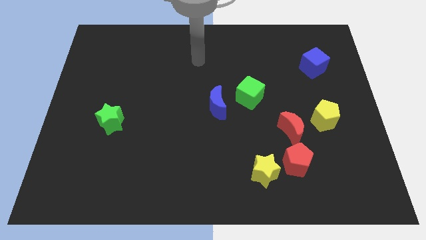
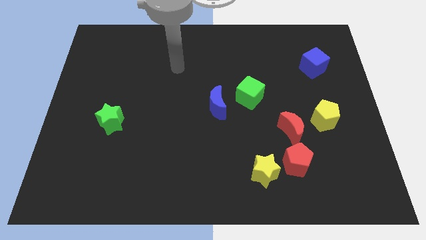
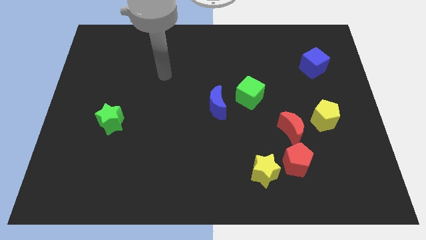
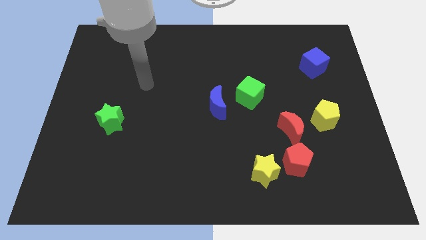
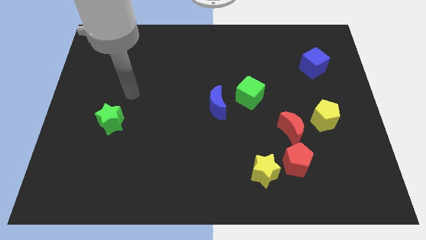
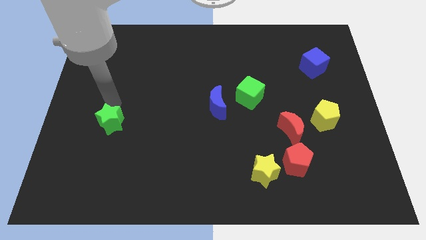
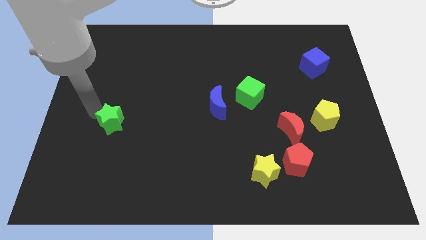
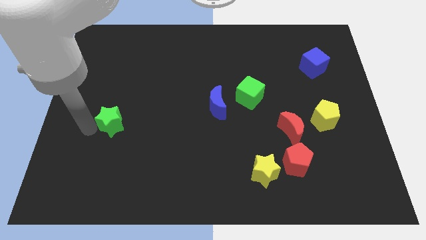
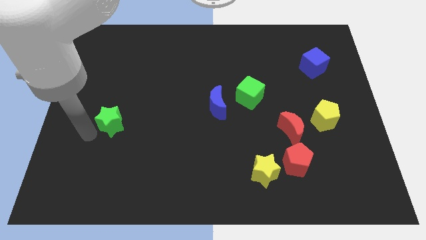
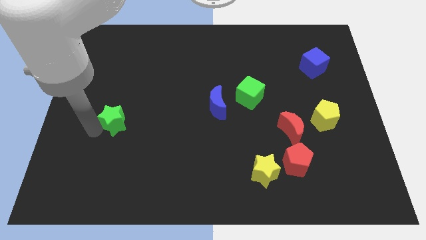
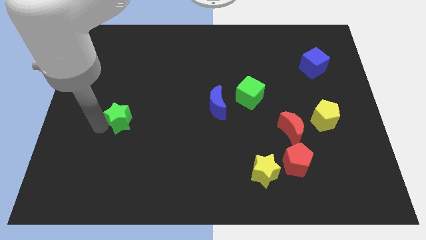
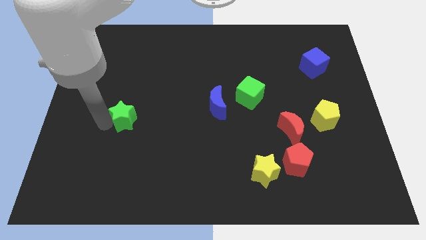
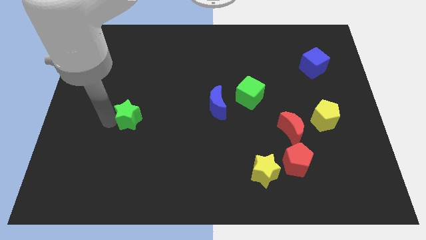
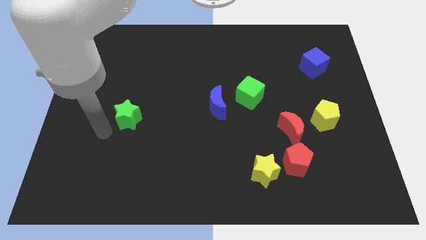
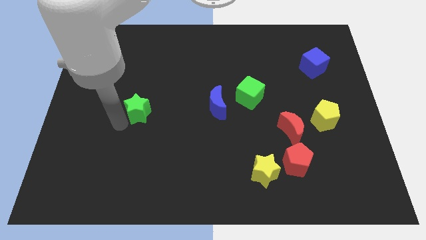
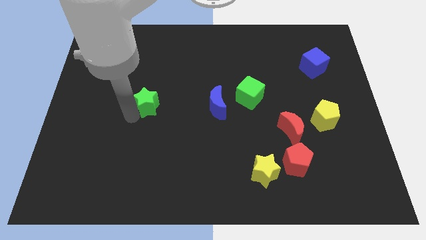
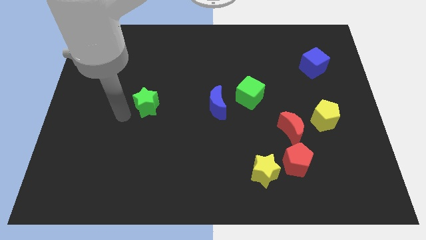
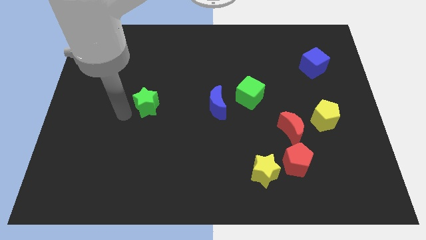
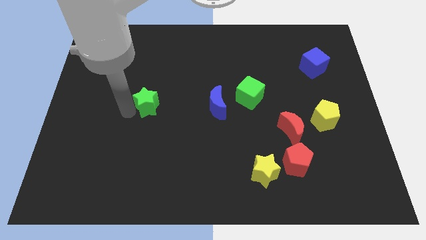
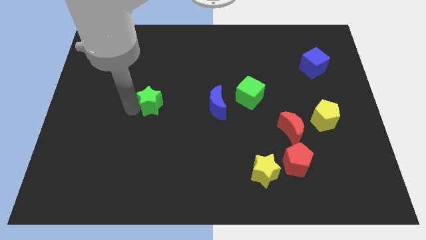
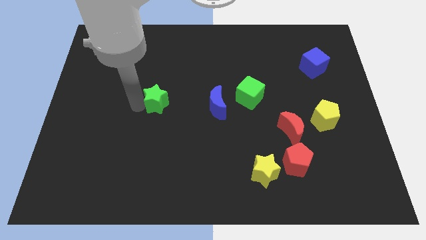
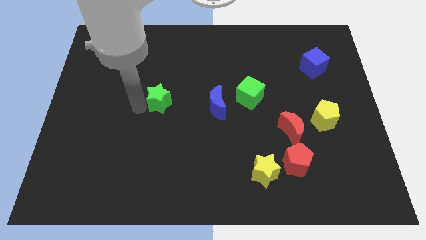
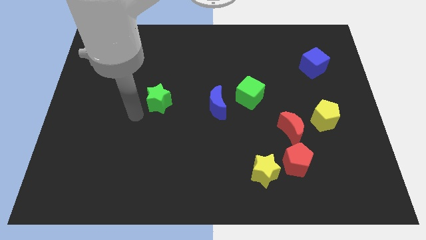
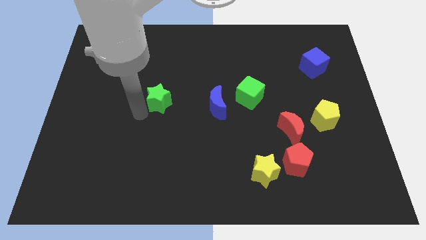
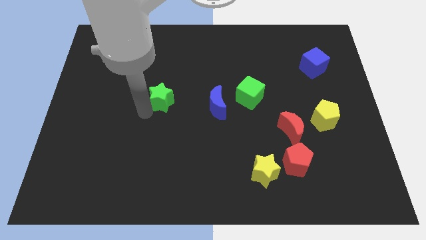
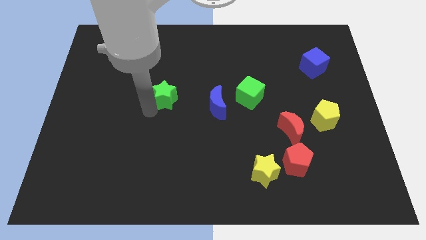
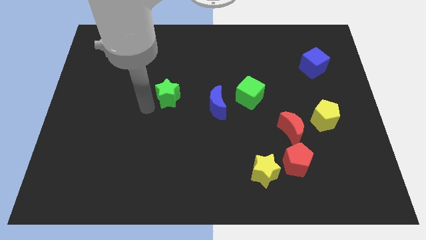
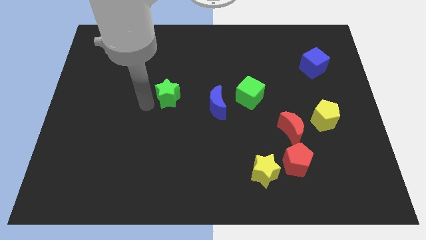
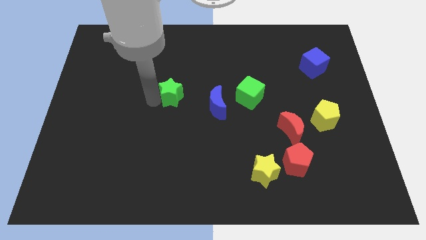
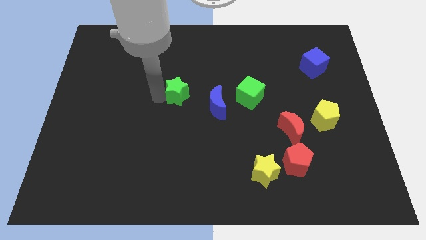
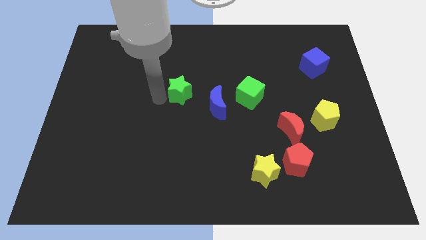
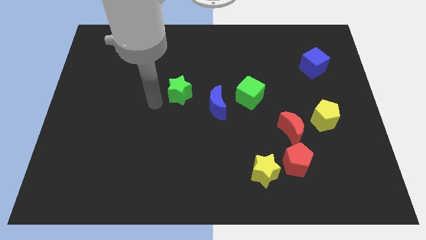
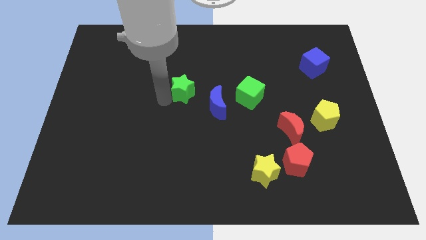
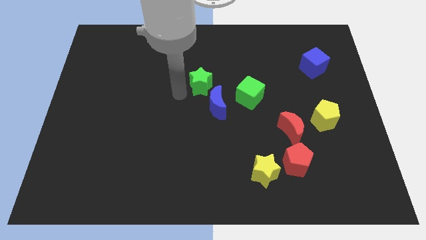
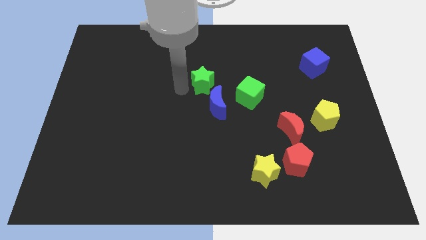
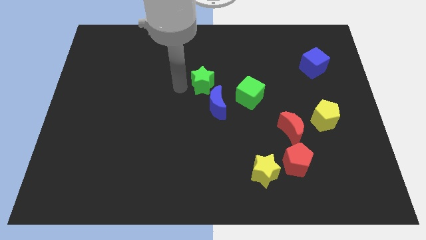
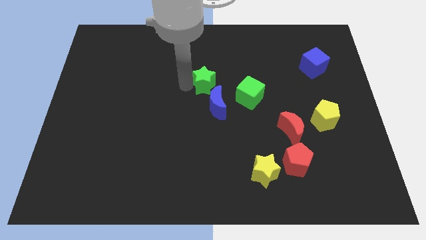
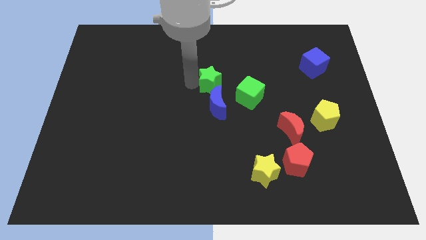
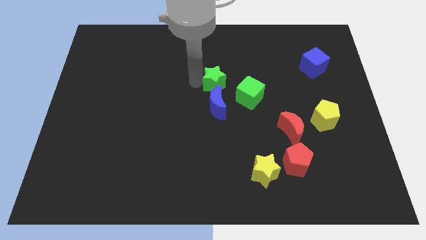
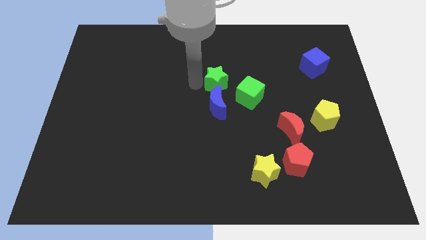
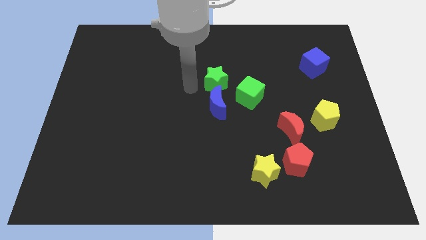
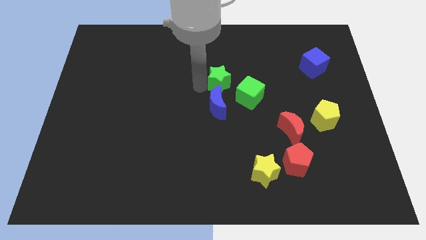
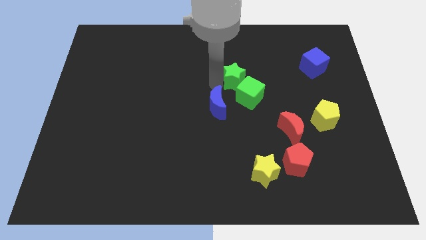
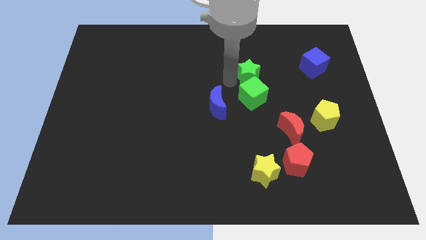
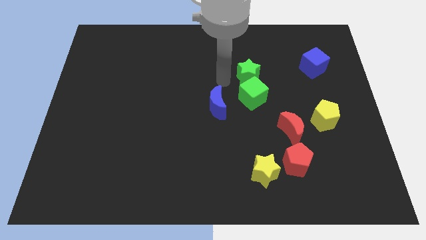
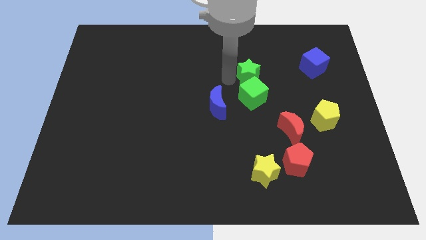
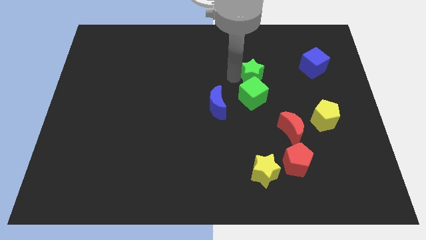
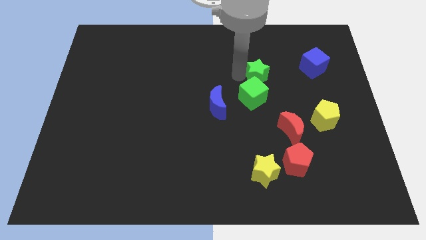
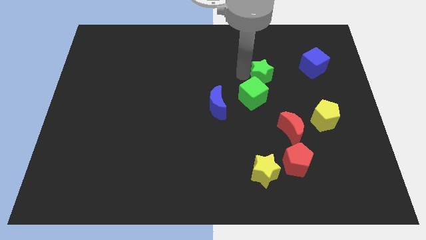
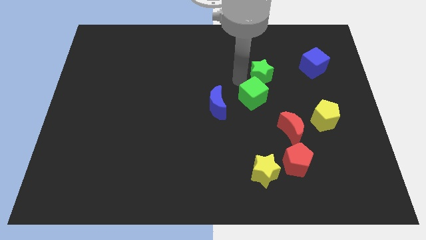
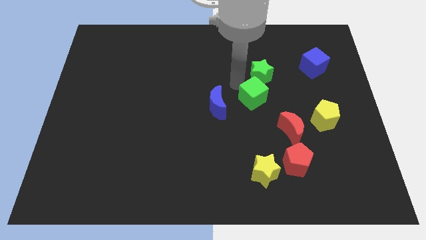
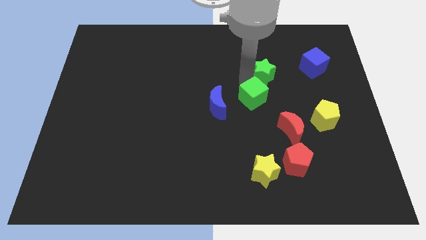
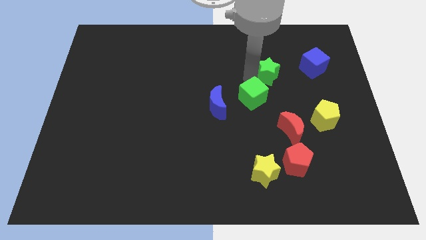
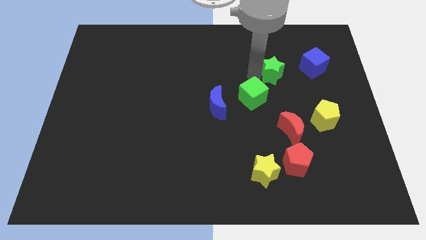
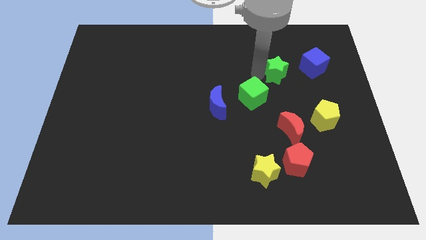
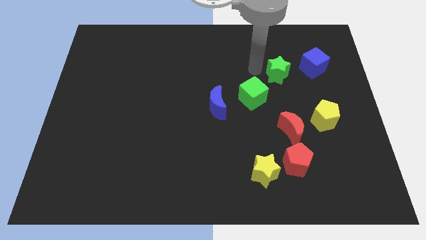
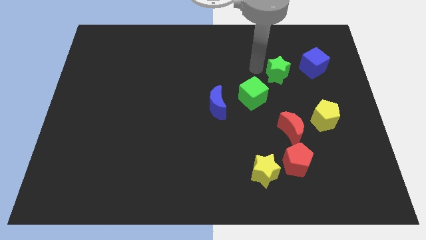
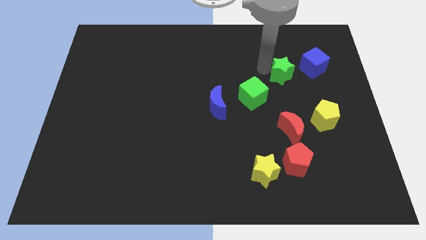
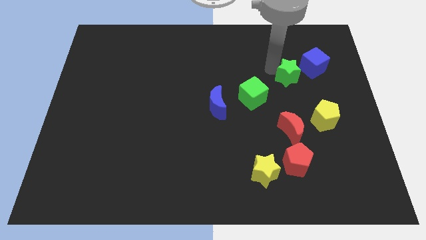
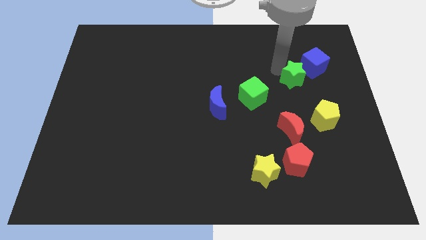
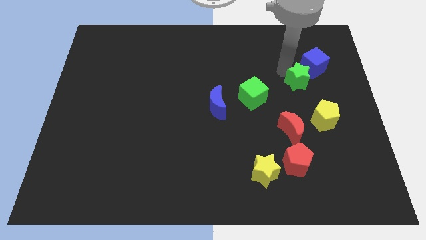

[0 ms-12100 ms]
slide the green star above the yellow pentagon

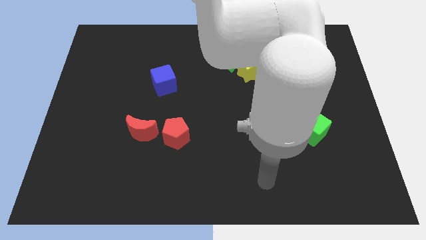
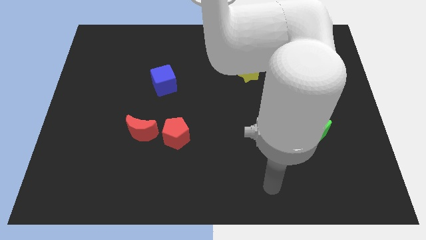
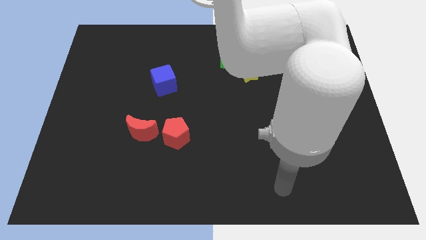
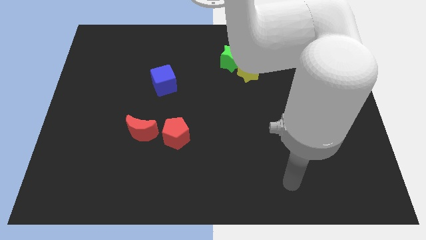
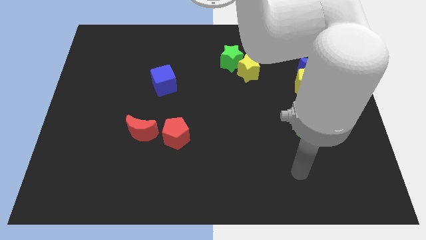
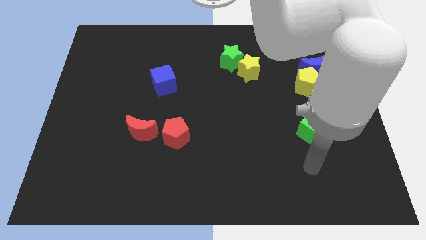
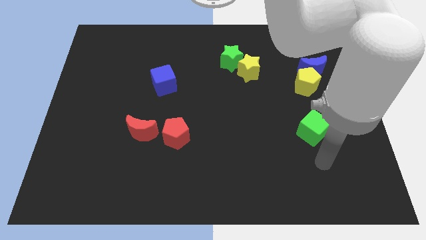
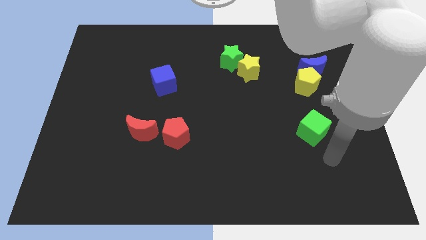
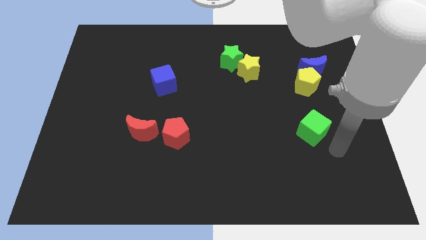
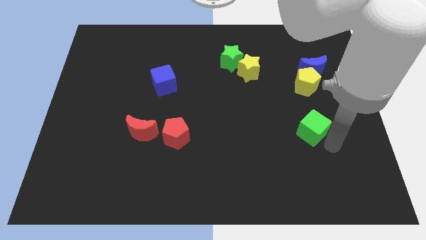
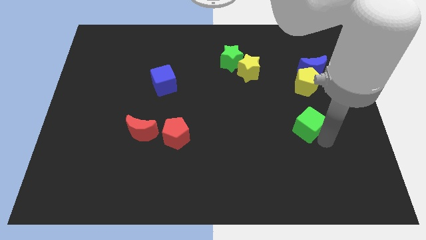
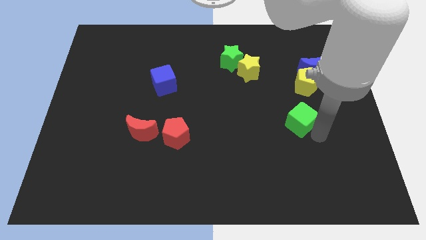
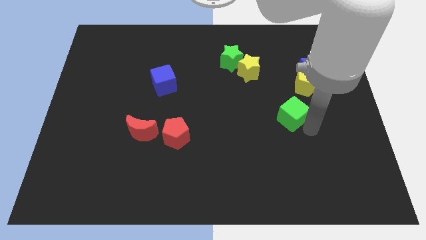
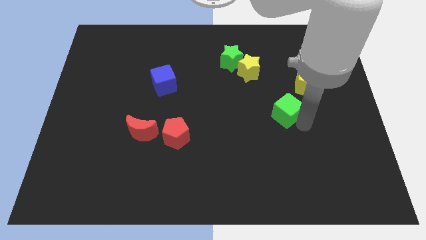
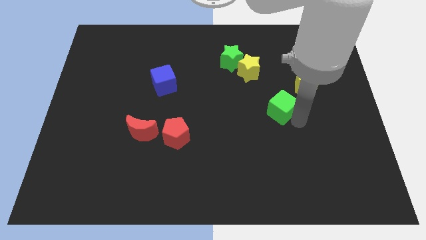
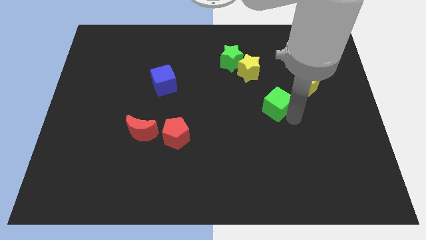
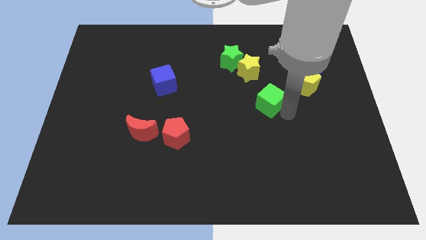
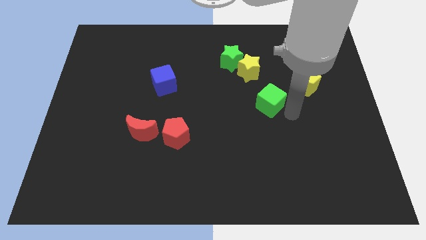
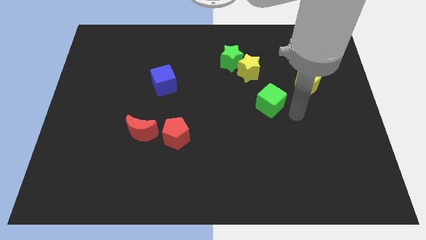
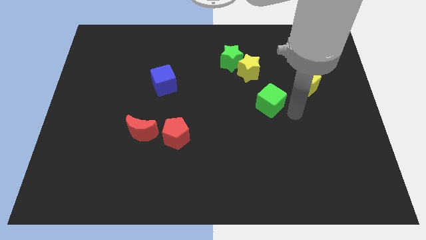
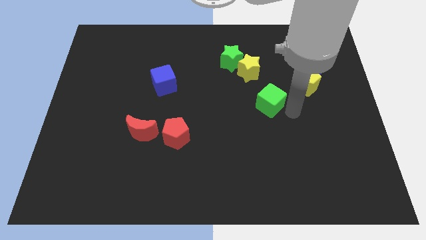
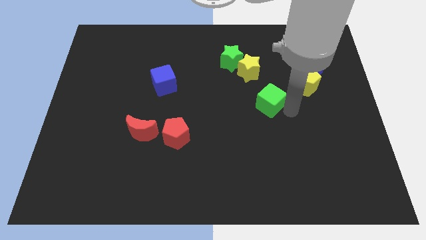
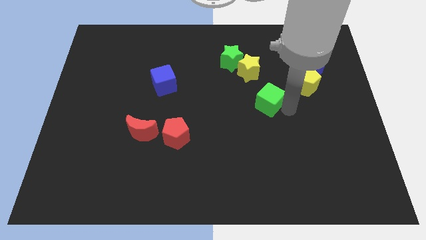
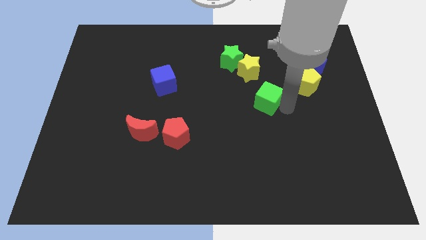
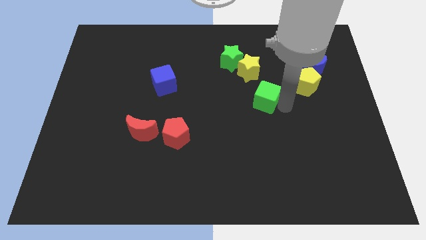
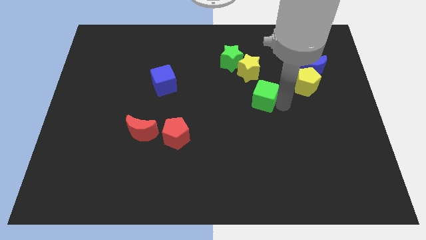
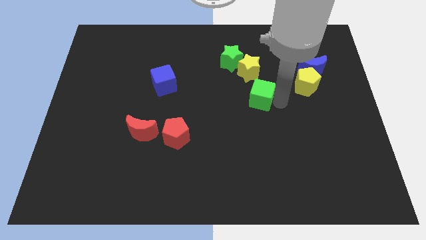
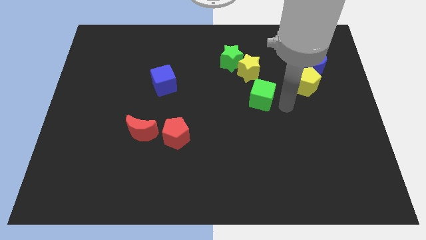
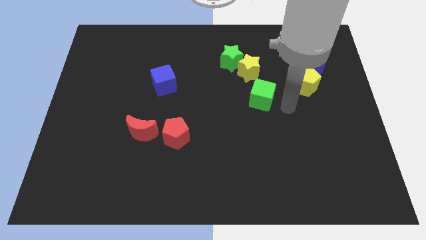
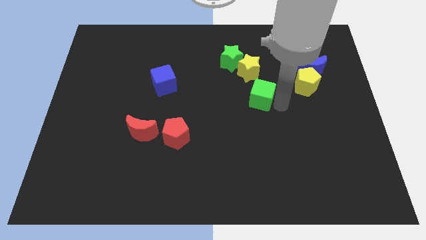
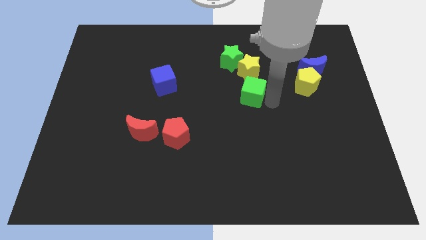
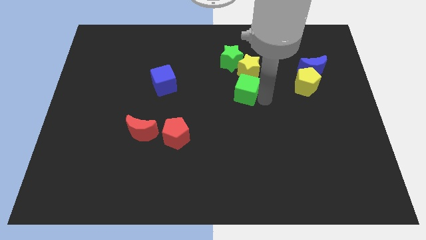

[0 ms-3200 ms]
move the green cube to the bottom left side of the yellow star
